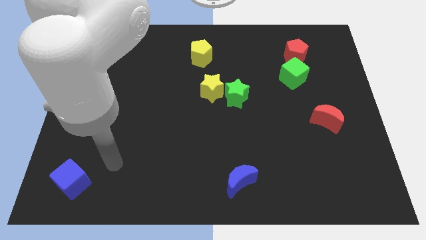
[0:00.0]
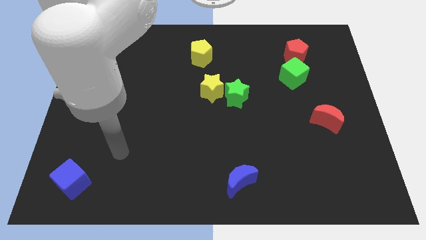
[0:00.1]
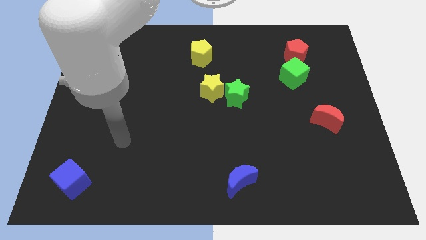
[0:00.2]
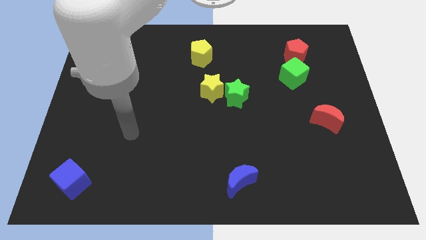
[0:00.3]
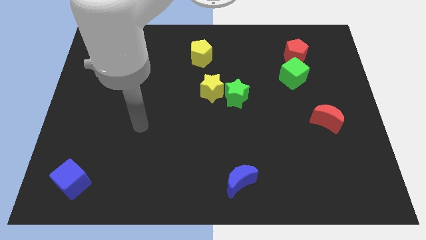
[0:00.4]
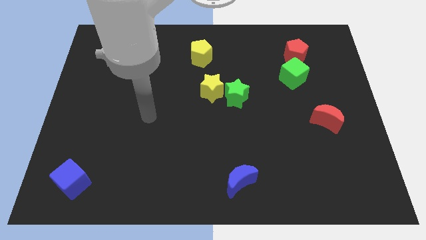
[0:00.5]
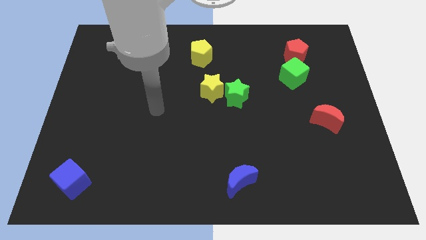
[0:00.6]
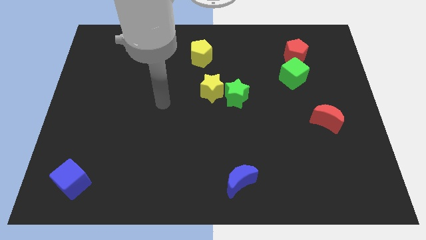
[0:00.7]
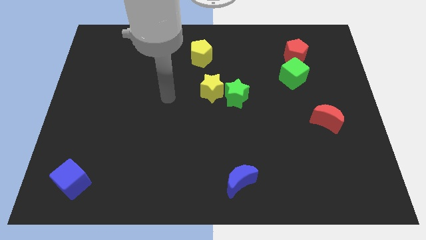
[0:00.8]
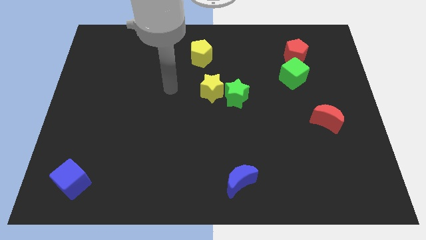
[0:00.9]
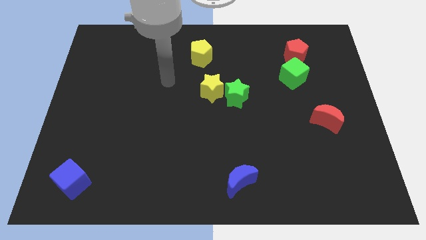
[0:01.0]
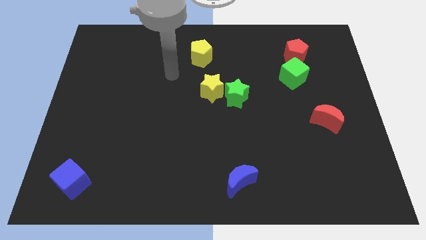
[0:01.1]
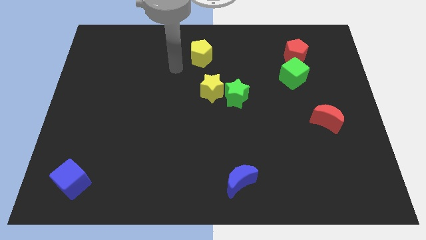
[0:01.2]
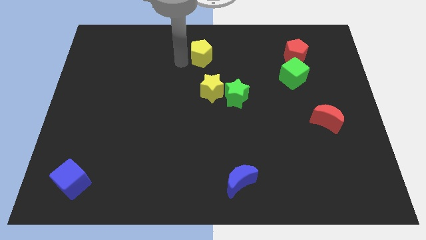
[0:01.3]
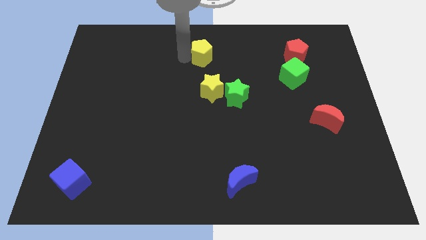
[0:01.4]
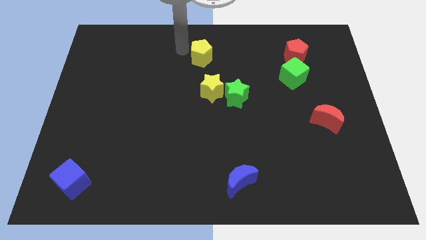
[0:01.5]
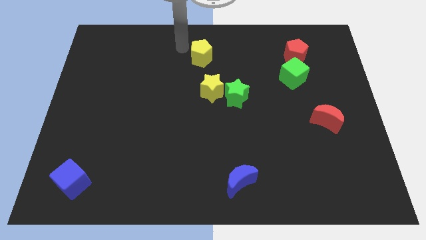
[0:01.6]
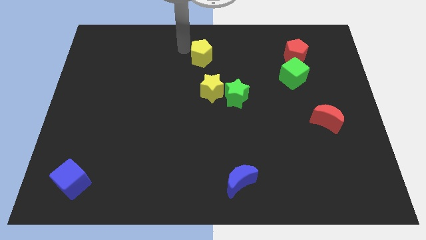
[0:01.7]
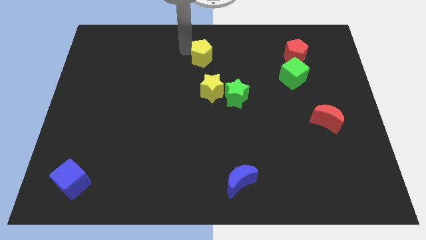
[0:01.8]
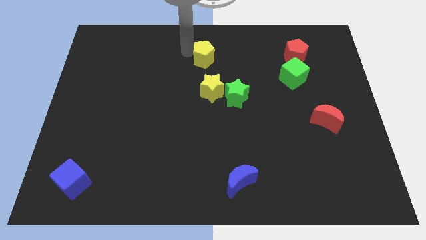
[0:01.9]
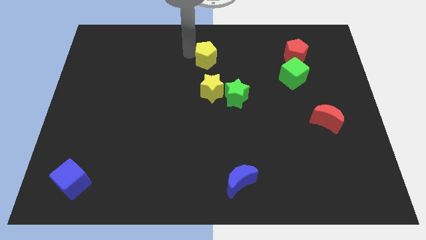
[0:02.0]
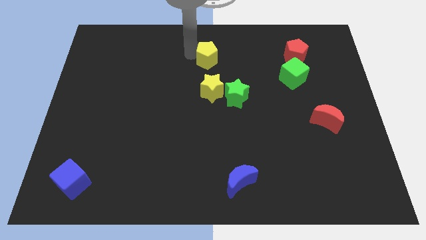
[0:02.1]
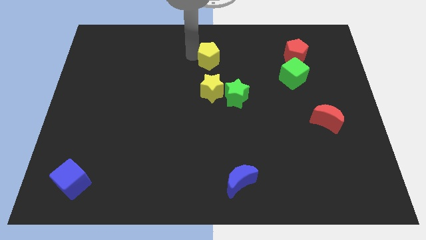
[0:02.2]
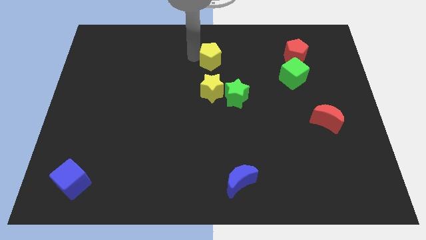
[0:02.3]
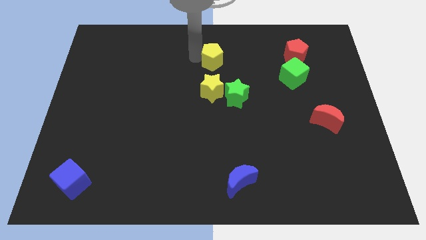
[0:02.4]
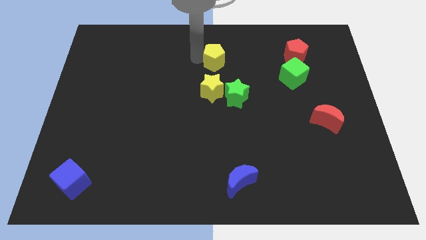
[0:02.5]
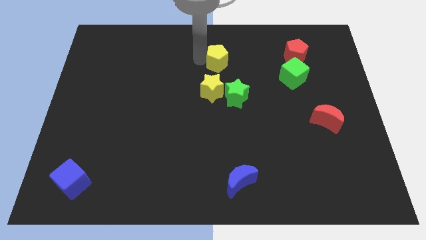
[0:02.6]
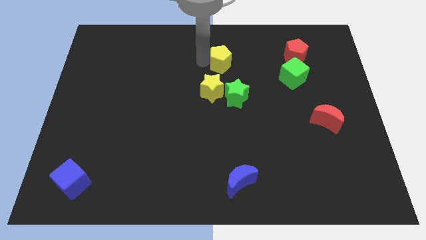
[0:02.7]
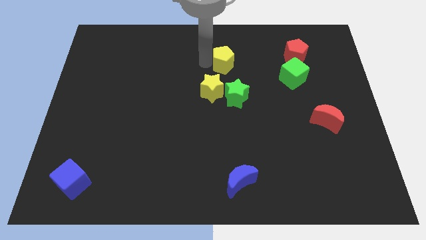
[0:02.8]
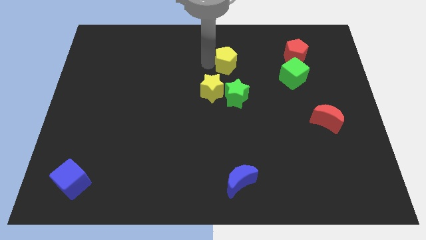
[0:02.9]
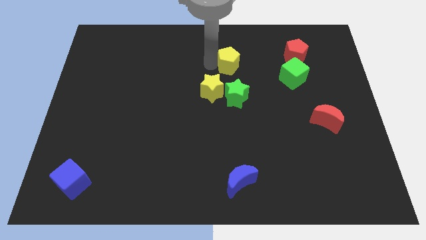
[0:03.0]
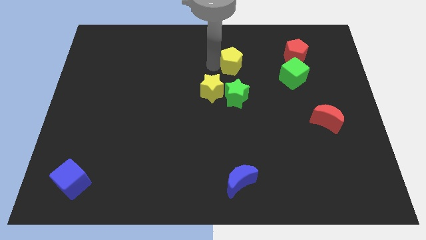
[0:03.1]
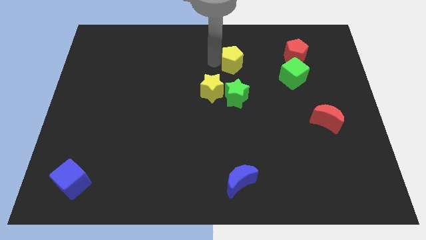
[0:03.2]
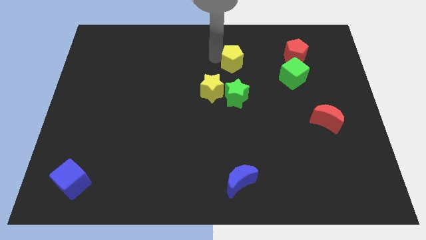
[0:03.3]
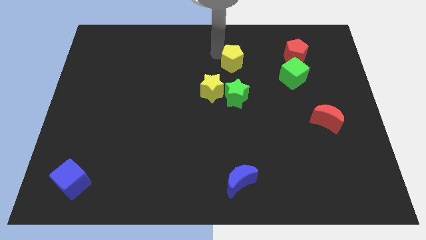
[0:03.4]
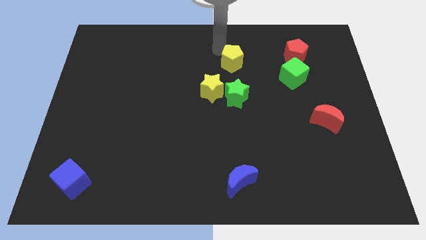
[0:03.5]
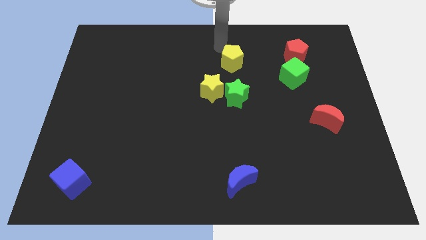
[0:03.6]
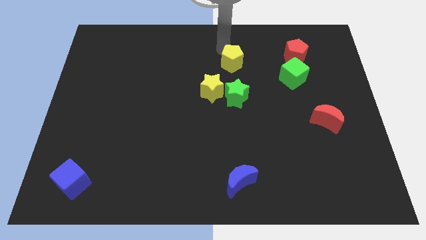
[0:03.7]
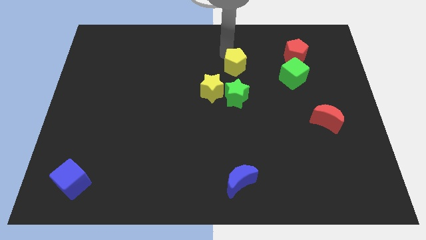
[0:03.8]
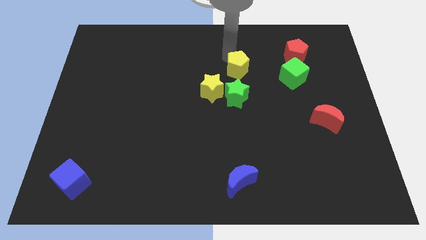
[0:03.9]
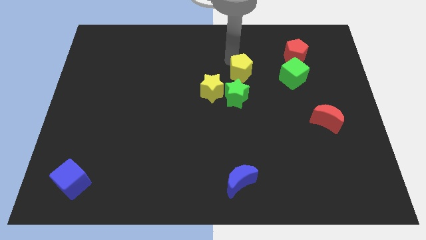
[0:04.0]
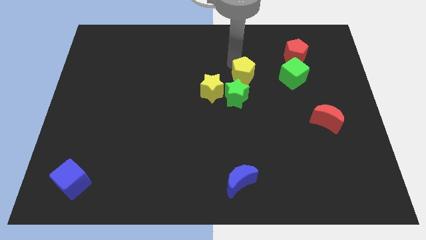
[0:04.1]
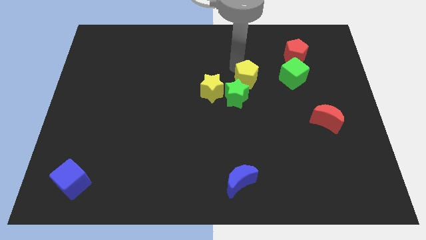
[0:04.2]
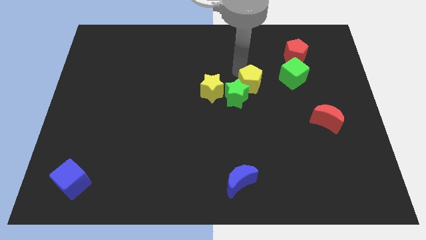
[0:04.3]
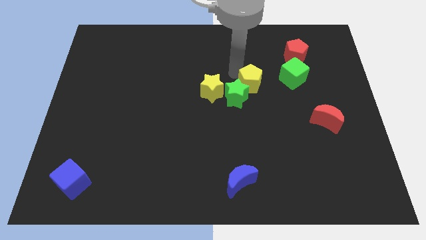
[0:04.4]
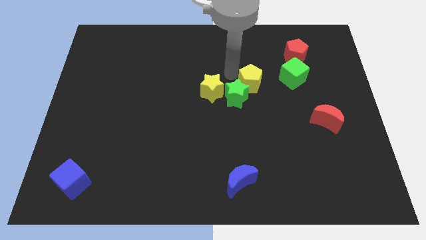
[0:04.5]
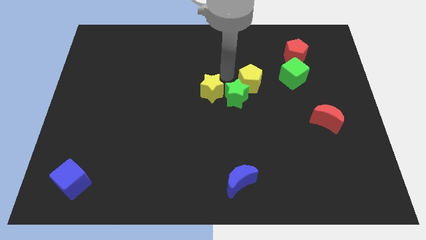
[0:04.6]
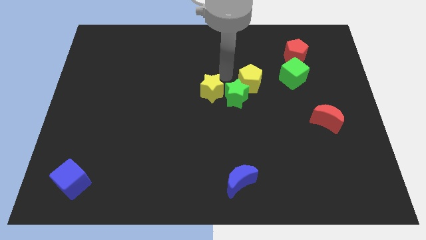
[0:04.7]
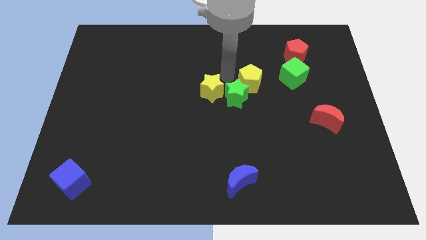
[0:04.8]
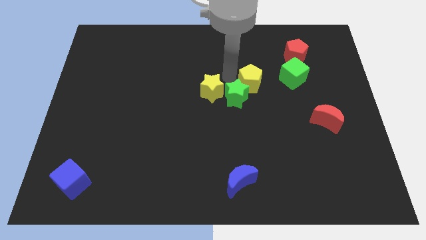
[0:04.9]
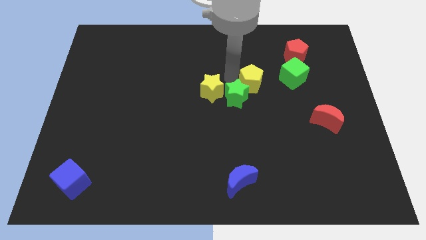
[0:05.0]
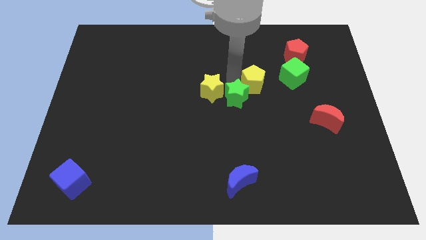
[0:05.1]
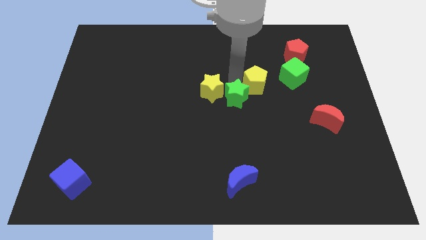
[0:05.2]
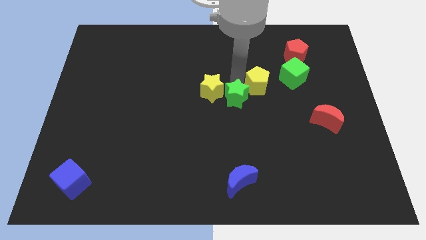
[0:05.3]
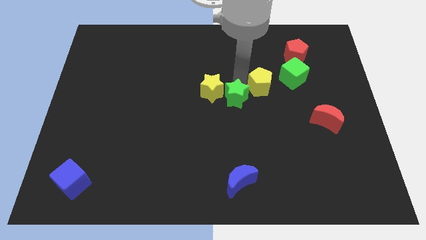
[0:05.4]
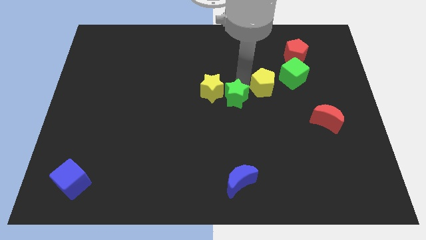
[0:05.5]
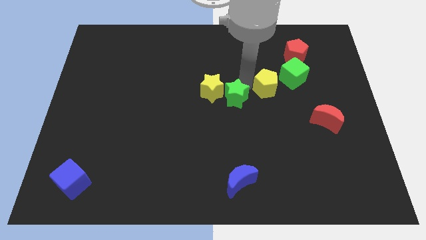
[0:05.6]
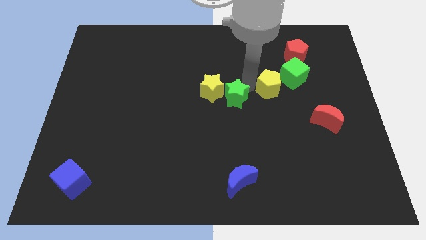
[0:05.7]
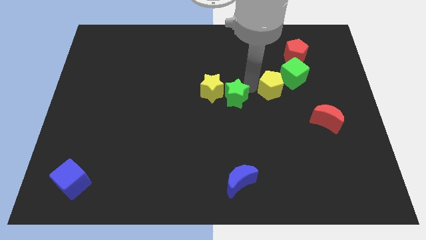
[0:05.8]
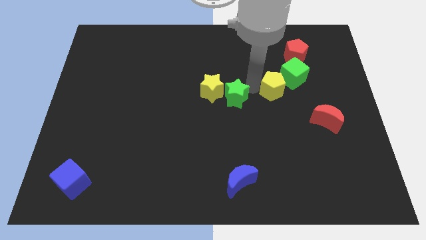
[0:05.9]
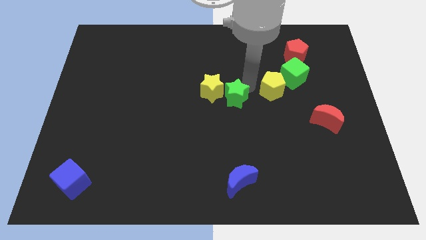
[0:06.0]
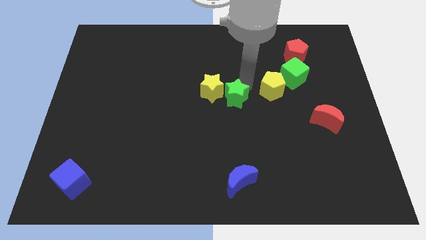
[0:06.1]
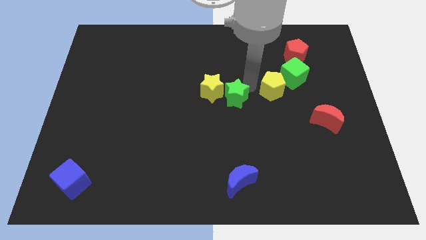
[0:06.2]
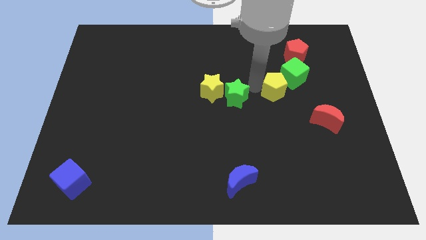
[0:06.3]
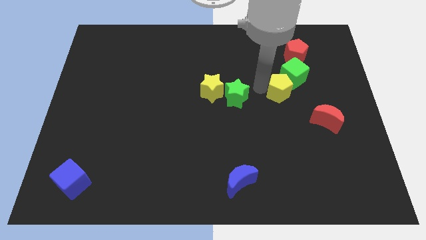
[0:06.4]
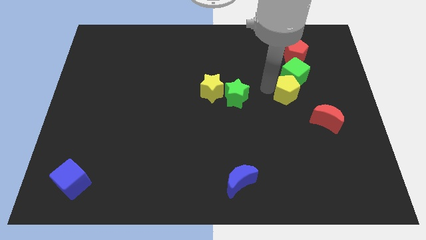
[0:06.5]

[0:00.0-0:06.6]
push the yellow pentagon diagonally up and to the left of the red moon
